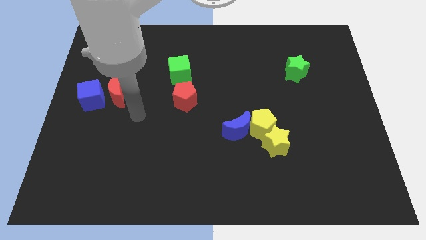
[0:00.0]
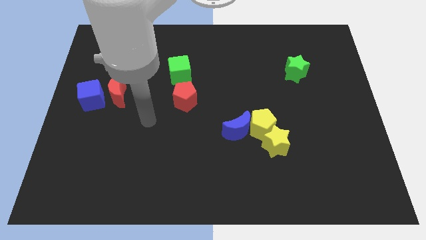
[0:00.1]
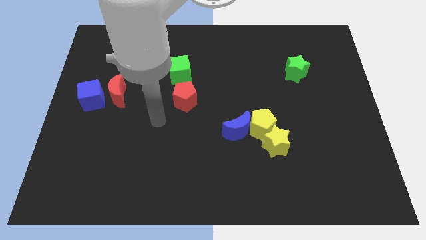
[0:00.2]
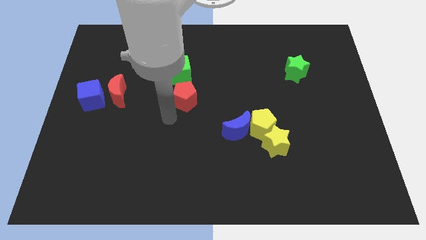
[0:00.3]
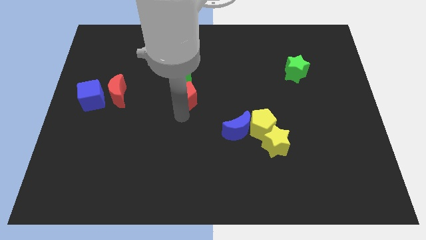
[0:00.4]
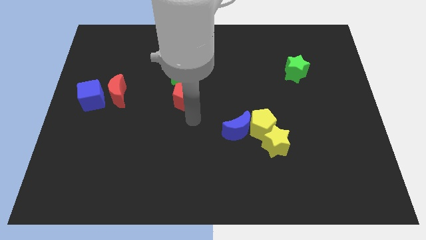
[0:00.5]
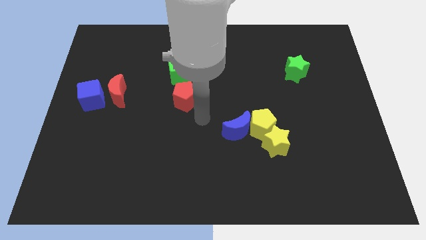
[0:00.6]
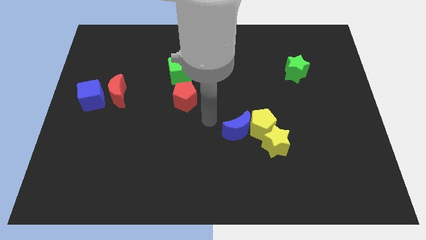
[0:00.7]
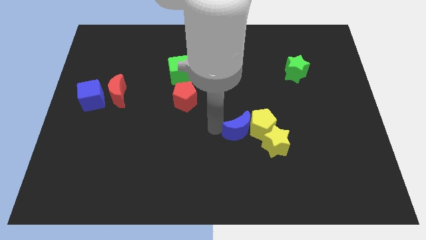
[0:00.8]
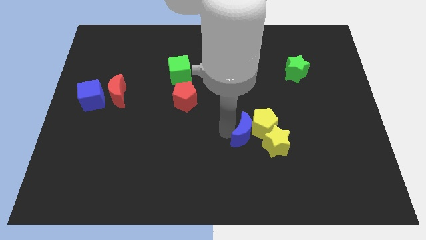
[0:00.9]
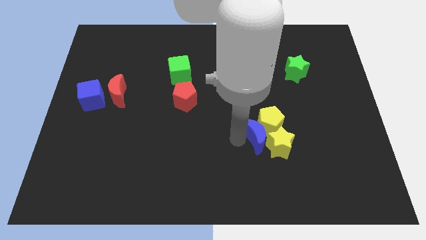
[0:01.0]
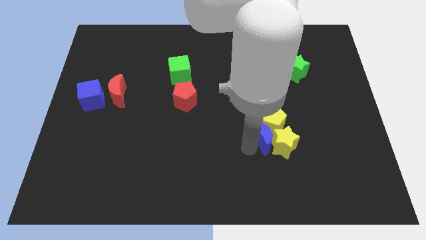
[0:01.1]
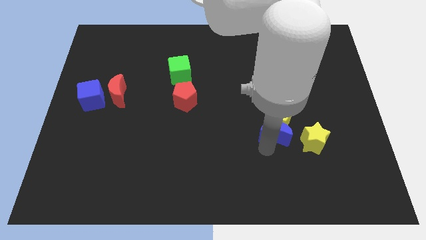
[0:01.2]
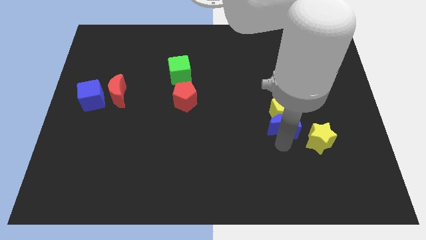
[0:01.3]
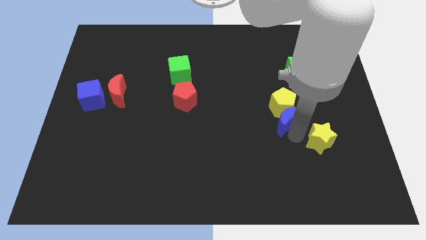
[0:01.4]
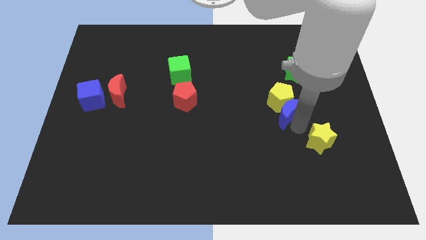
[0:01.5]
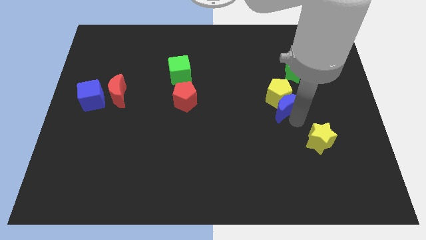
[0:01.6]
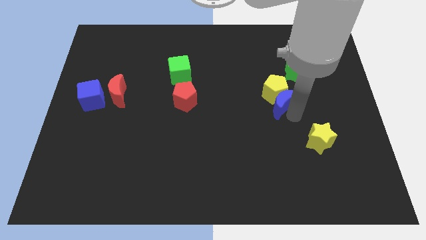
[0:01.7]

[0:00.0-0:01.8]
move the yellow pentagon away from the yellow star and blue moon

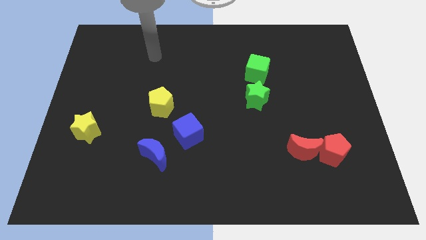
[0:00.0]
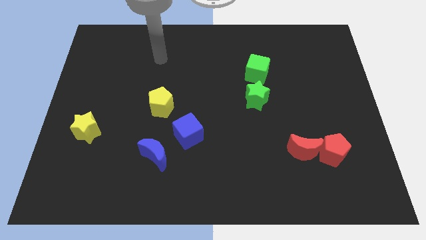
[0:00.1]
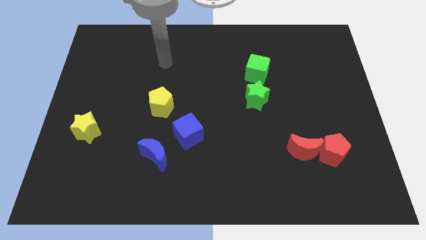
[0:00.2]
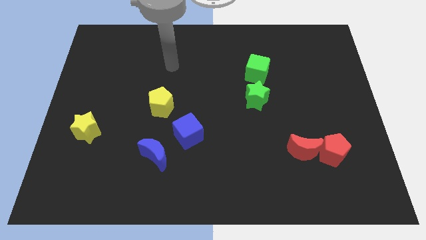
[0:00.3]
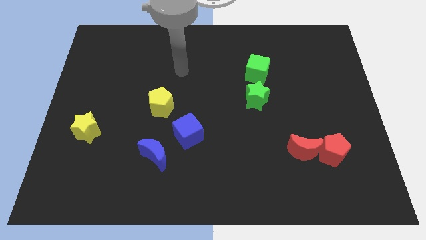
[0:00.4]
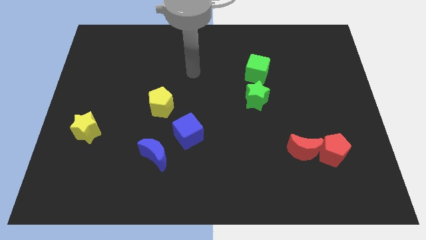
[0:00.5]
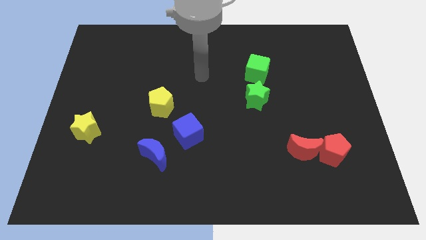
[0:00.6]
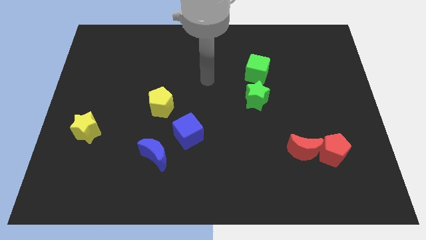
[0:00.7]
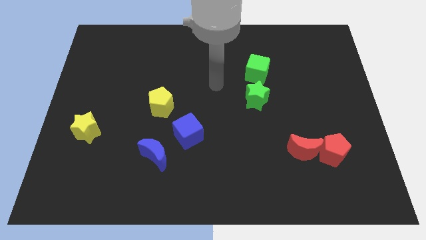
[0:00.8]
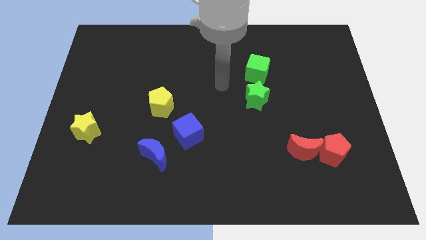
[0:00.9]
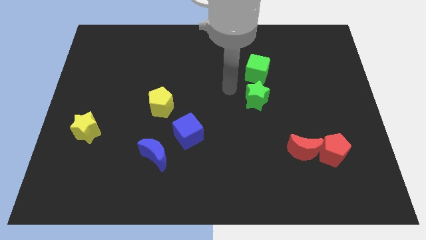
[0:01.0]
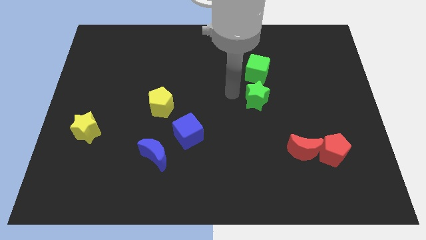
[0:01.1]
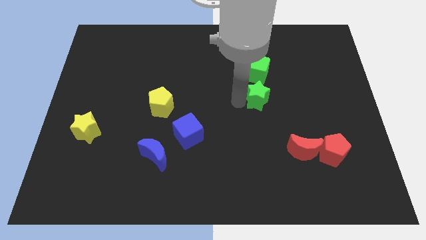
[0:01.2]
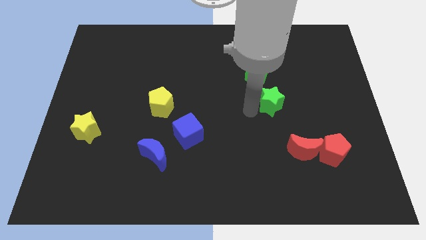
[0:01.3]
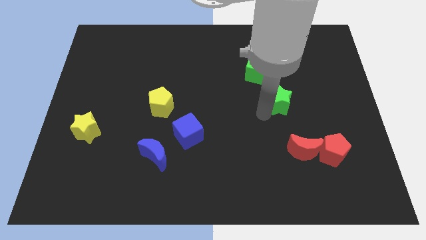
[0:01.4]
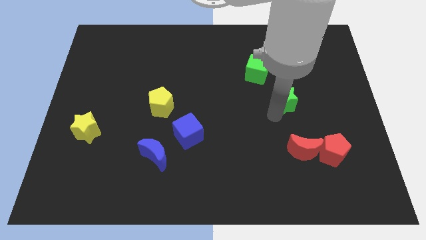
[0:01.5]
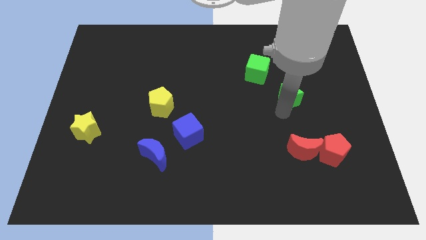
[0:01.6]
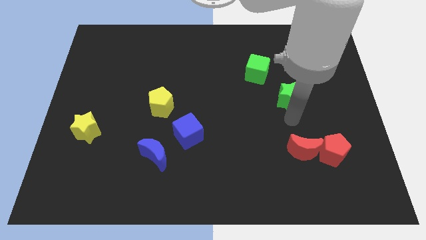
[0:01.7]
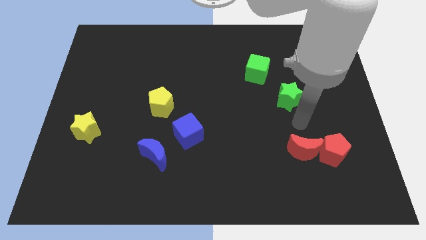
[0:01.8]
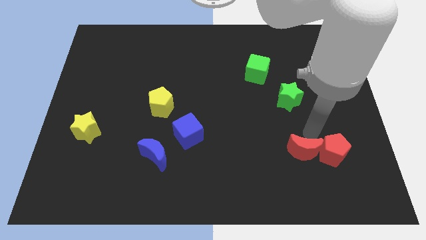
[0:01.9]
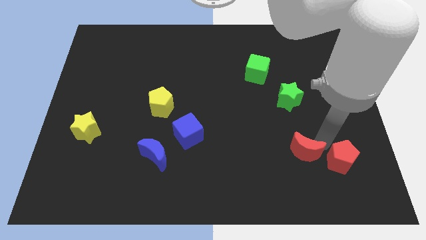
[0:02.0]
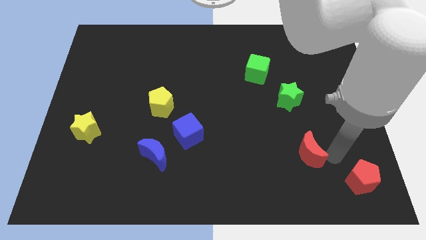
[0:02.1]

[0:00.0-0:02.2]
pull the red moon apart from the red pentagon

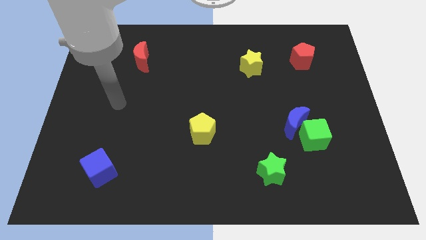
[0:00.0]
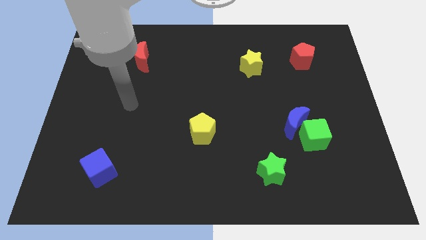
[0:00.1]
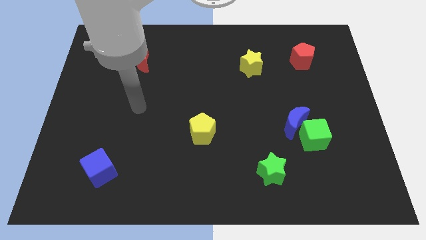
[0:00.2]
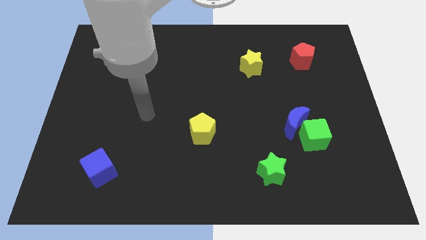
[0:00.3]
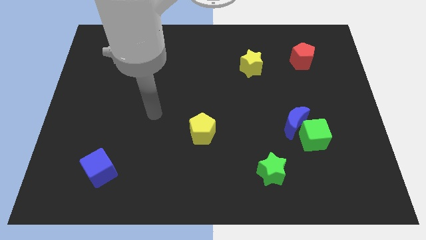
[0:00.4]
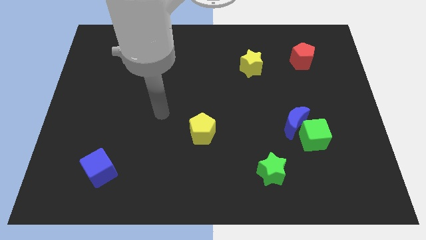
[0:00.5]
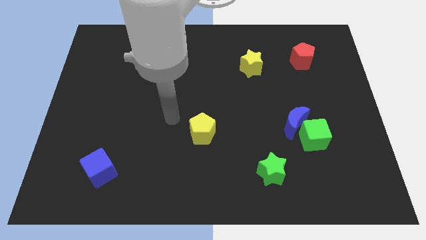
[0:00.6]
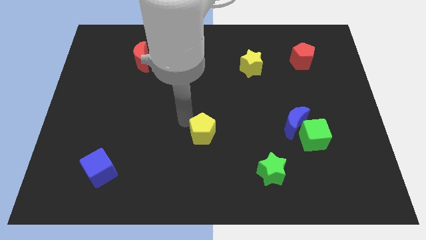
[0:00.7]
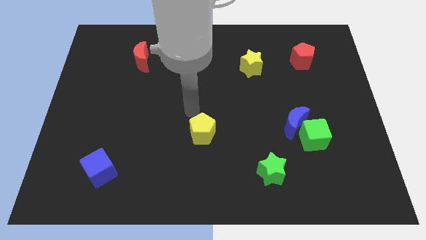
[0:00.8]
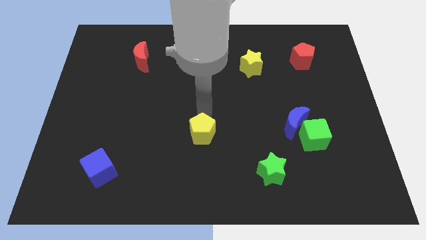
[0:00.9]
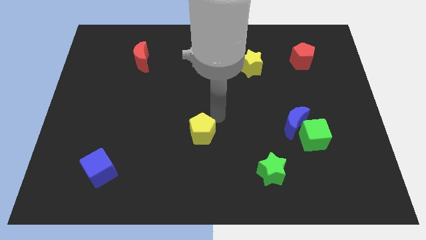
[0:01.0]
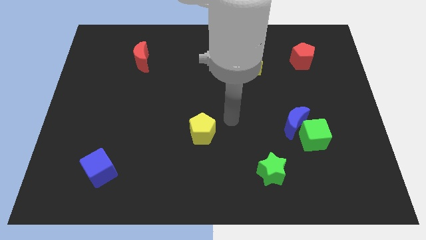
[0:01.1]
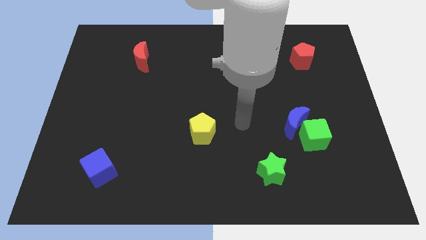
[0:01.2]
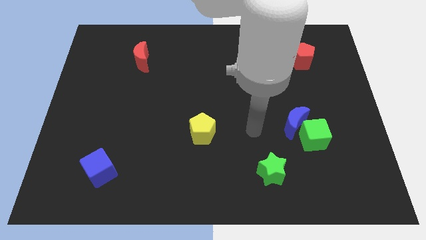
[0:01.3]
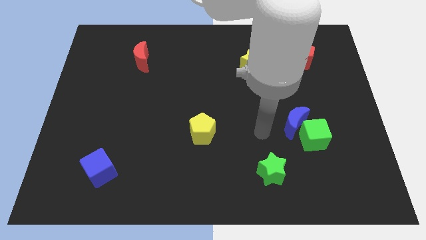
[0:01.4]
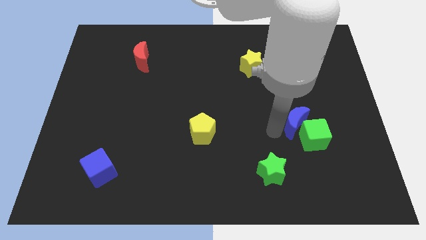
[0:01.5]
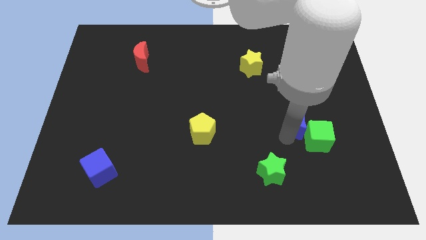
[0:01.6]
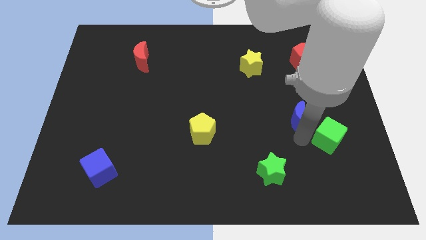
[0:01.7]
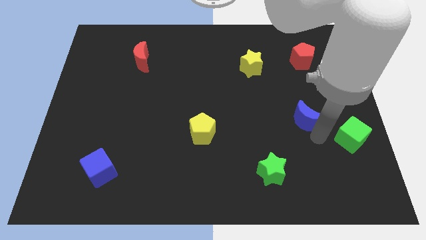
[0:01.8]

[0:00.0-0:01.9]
move the blue moon away from the green cube

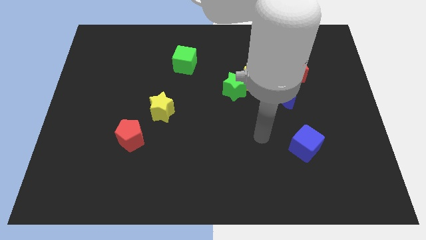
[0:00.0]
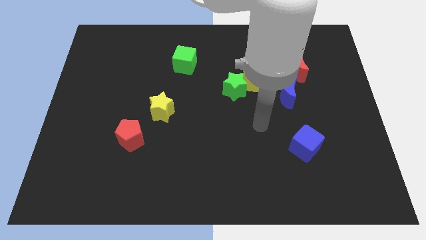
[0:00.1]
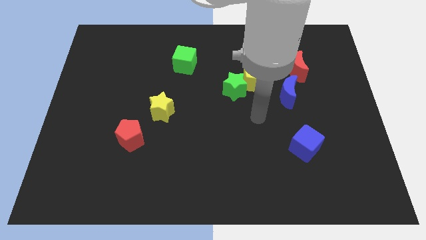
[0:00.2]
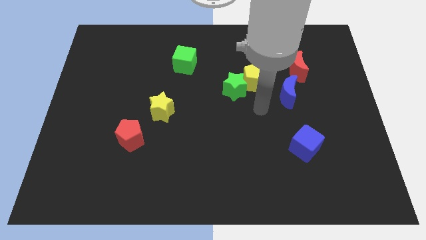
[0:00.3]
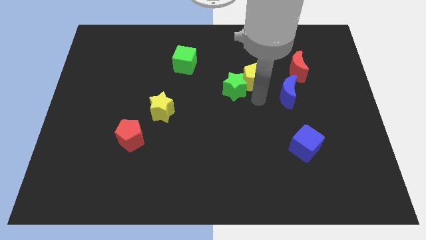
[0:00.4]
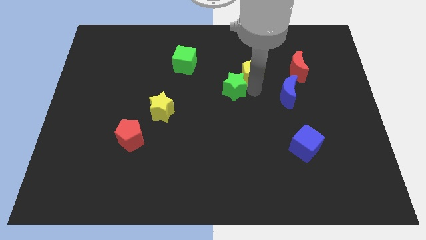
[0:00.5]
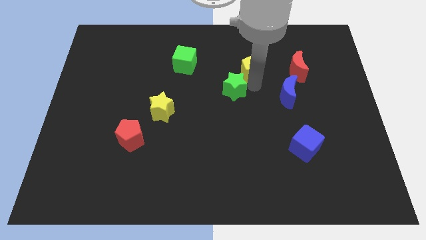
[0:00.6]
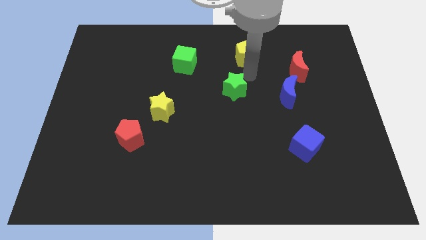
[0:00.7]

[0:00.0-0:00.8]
pull the green star apart from the yellow pentagon

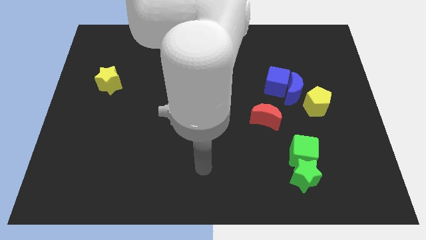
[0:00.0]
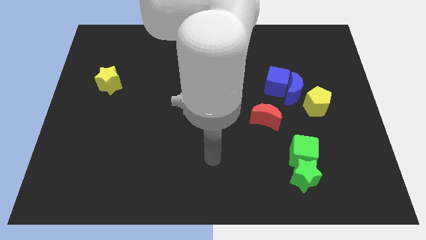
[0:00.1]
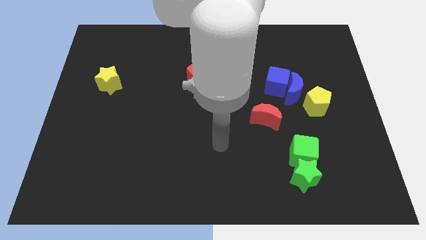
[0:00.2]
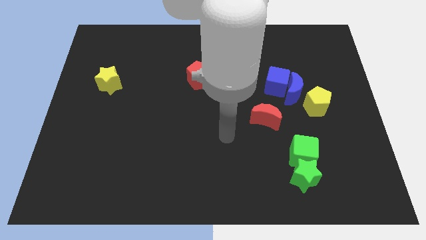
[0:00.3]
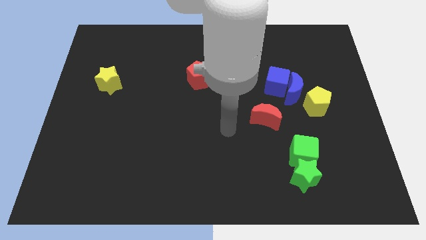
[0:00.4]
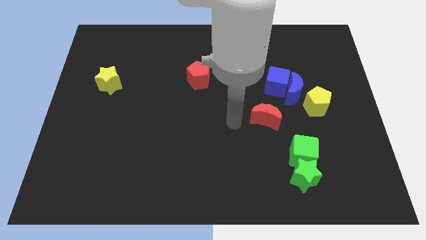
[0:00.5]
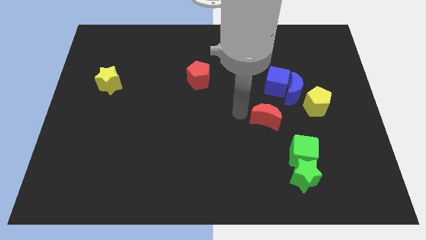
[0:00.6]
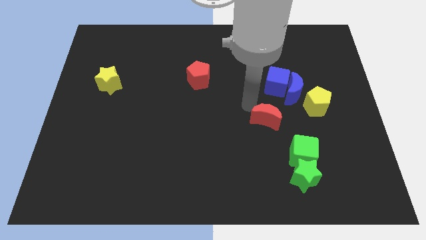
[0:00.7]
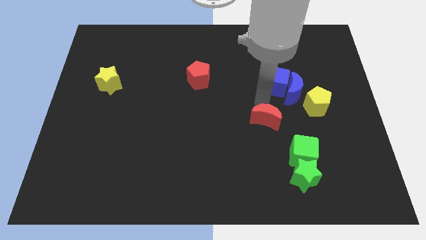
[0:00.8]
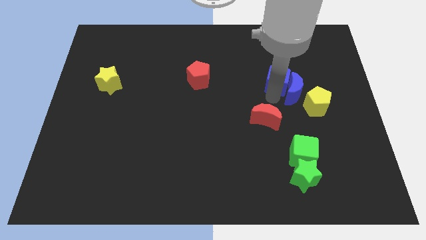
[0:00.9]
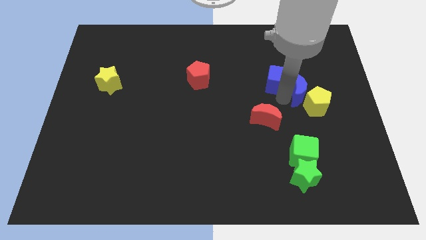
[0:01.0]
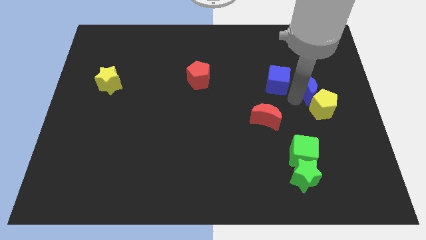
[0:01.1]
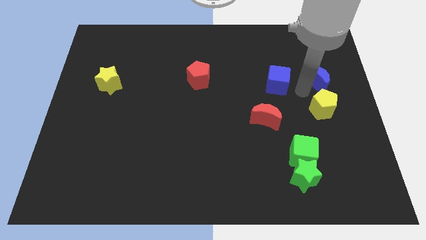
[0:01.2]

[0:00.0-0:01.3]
move the blue cube away from the blue moon

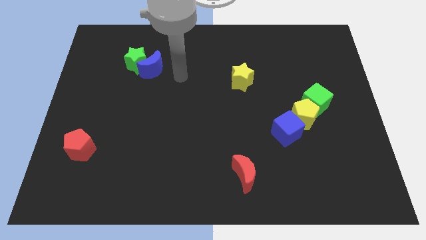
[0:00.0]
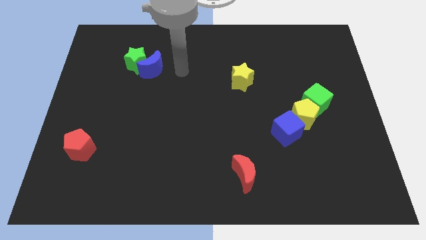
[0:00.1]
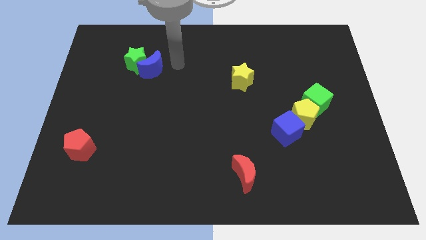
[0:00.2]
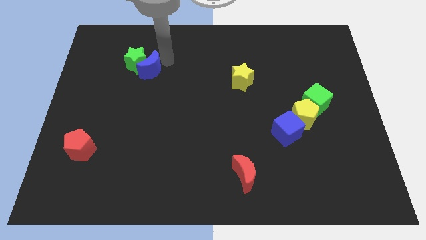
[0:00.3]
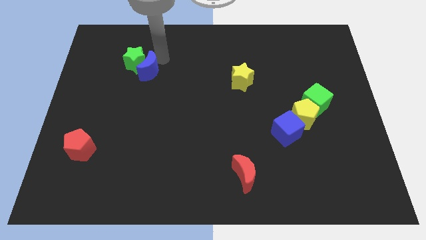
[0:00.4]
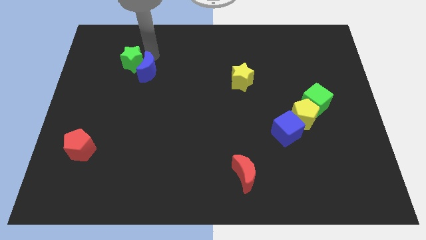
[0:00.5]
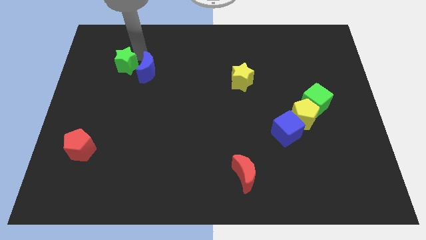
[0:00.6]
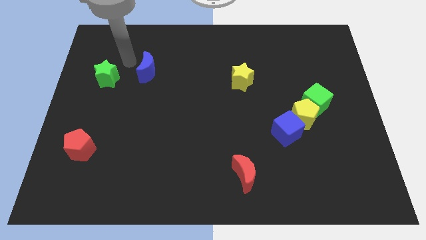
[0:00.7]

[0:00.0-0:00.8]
separate the blue moon from the green star

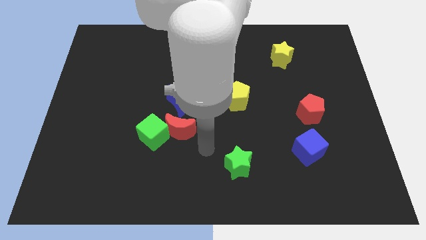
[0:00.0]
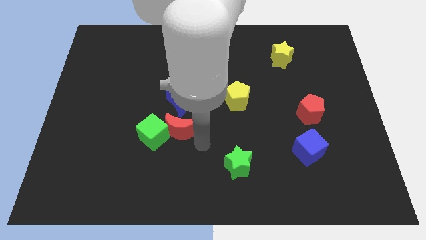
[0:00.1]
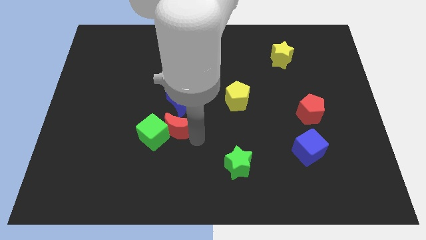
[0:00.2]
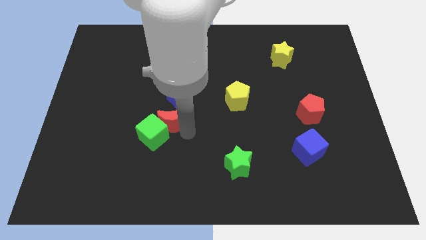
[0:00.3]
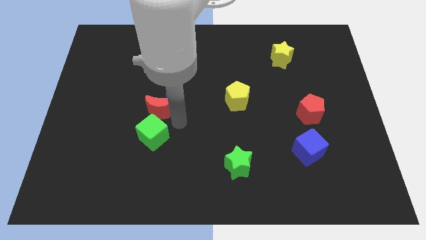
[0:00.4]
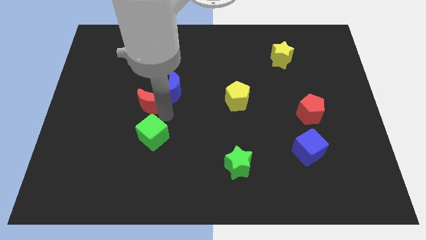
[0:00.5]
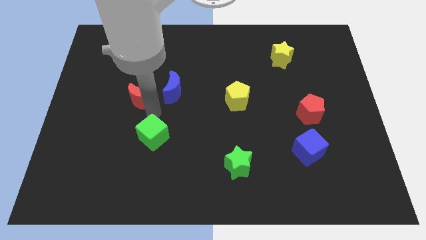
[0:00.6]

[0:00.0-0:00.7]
separate the green cube from the red moon
